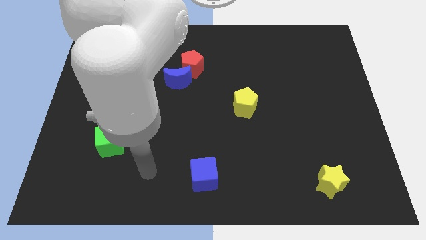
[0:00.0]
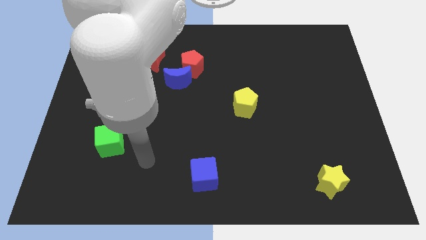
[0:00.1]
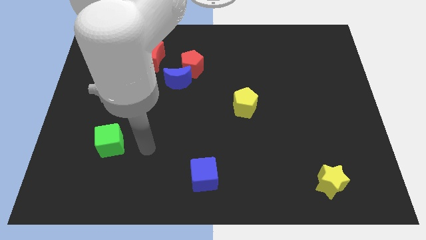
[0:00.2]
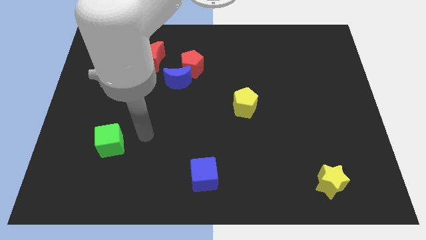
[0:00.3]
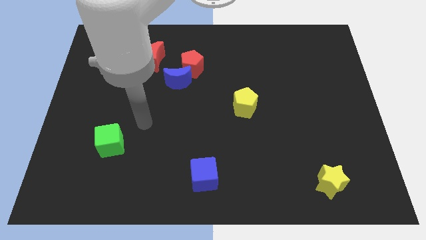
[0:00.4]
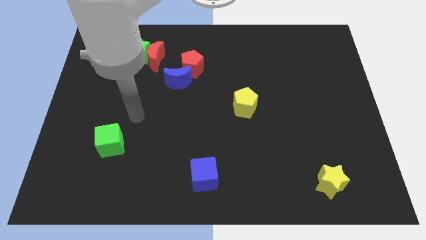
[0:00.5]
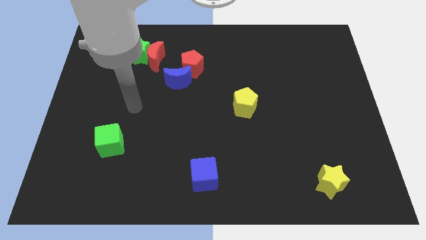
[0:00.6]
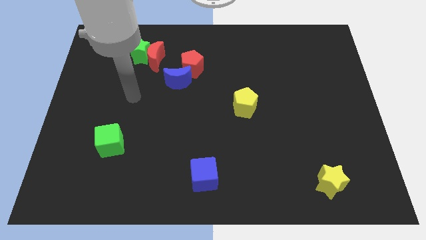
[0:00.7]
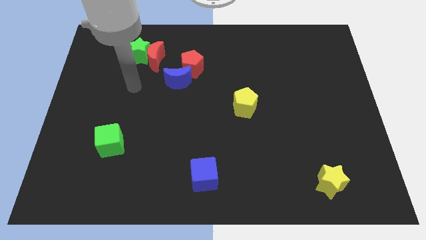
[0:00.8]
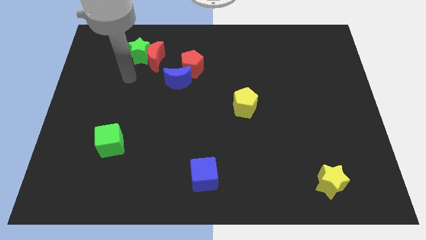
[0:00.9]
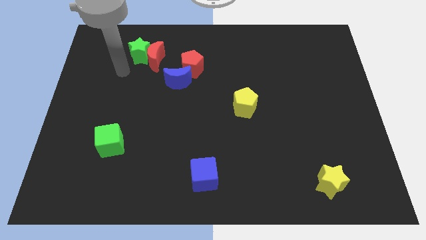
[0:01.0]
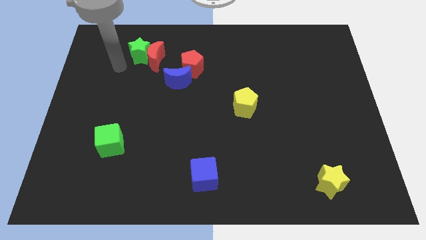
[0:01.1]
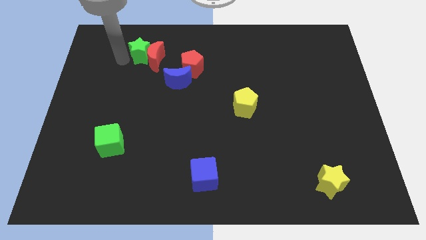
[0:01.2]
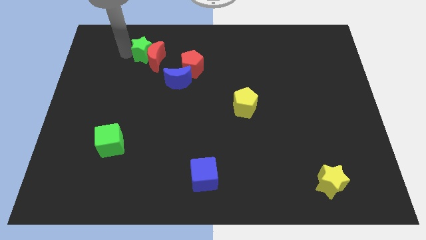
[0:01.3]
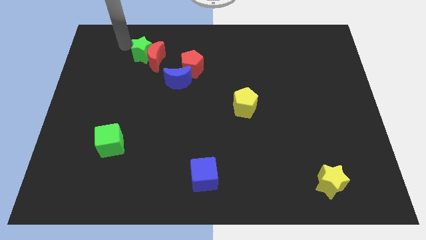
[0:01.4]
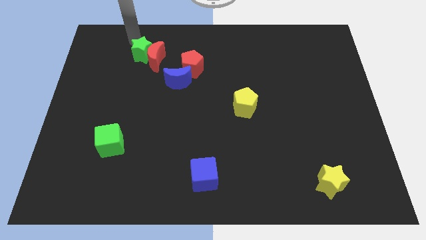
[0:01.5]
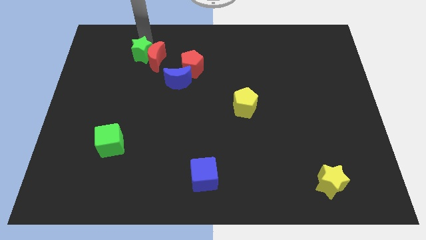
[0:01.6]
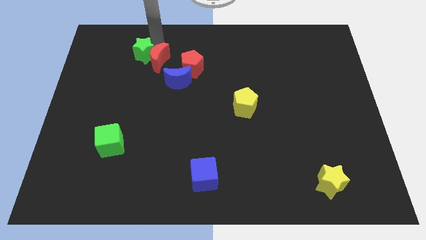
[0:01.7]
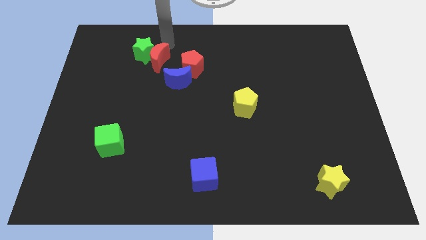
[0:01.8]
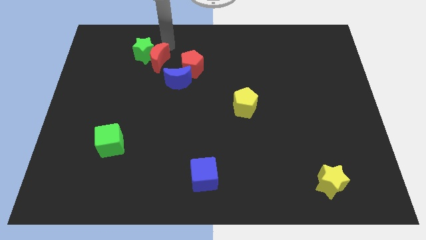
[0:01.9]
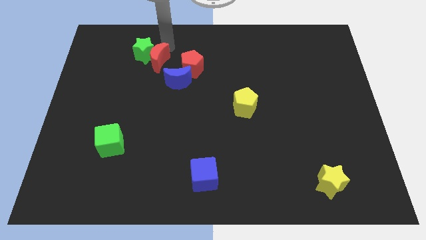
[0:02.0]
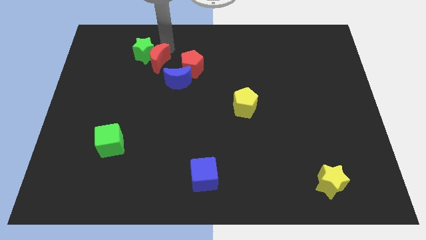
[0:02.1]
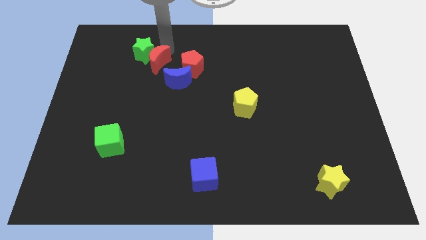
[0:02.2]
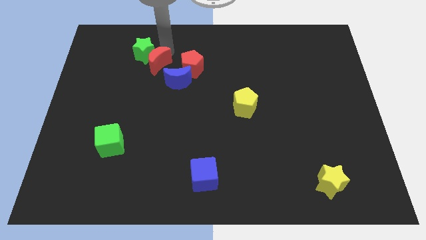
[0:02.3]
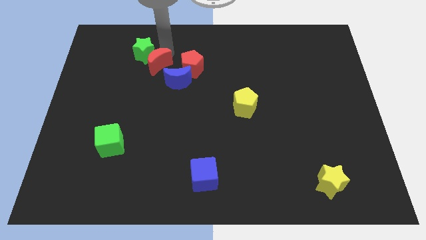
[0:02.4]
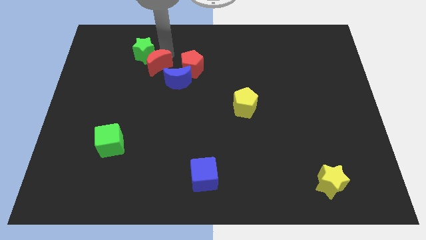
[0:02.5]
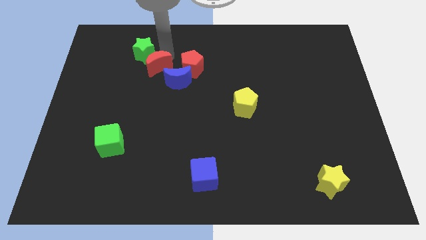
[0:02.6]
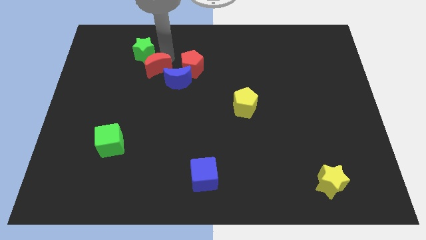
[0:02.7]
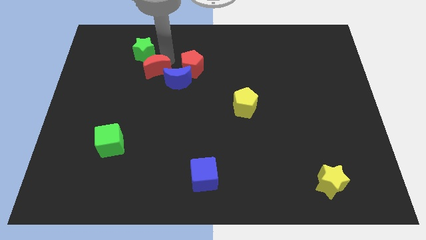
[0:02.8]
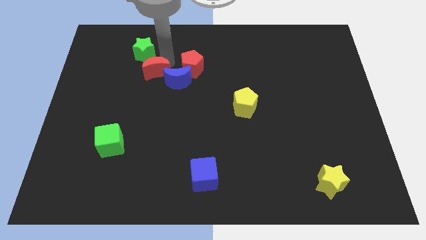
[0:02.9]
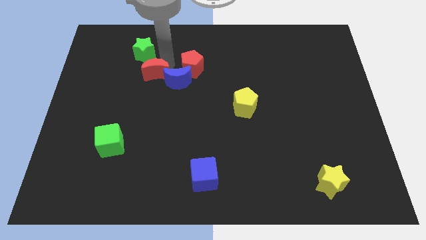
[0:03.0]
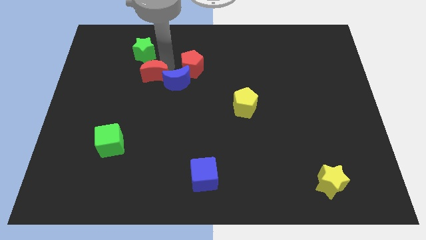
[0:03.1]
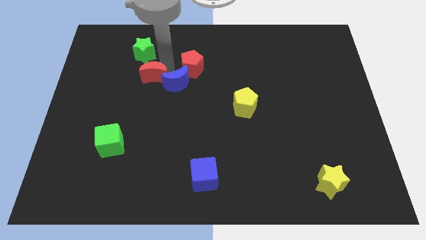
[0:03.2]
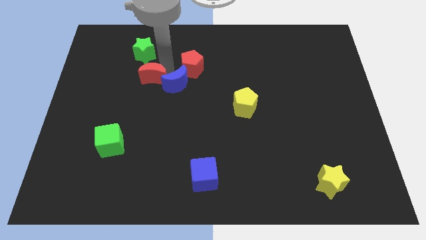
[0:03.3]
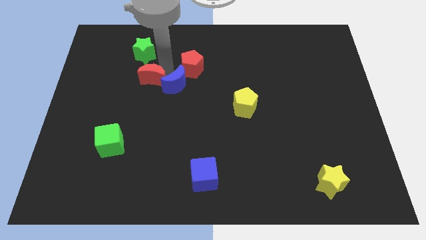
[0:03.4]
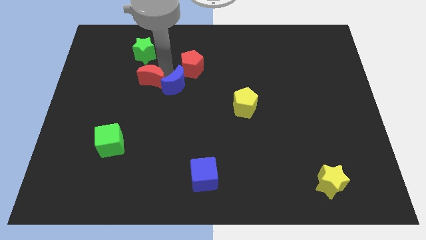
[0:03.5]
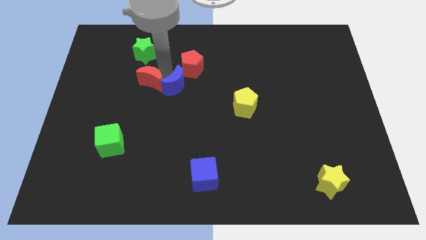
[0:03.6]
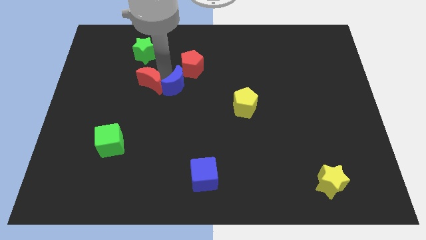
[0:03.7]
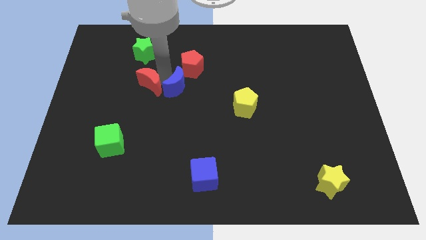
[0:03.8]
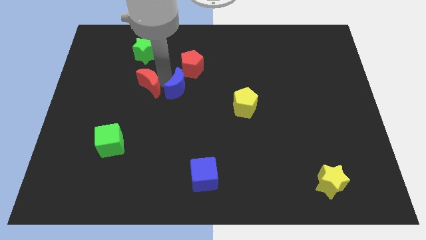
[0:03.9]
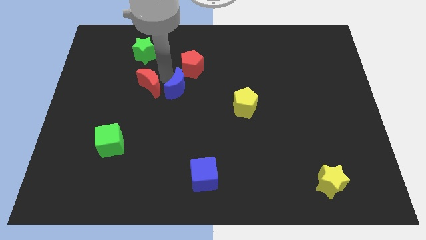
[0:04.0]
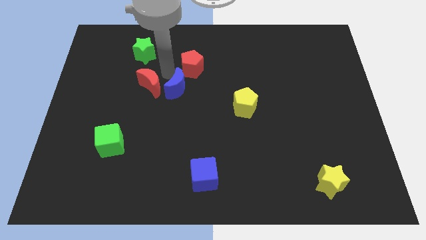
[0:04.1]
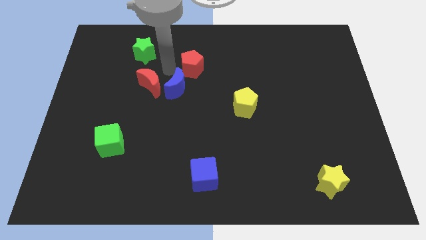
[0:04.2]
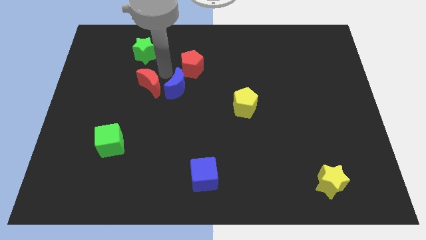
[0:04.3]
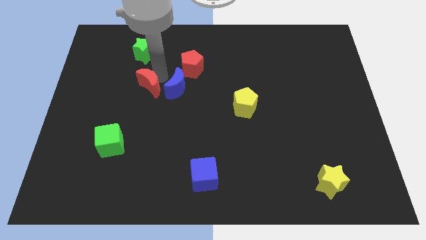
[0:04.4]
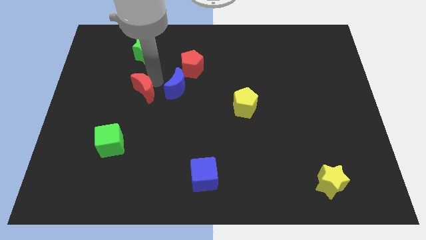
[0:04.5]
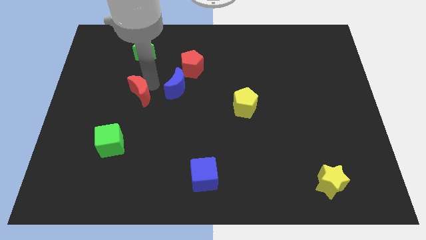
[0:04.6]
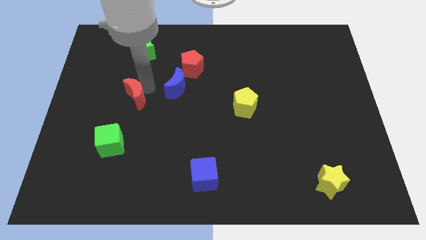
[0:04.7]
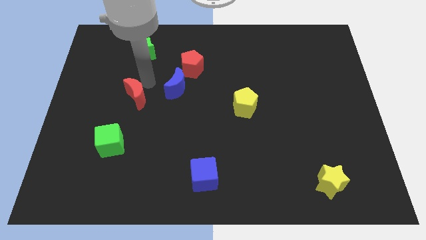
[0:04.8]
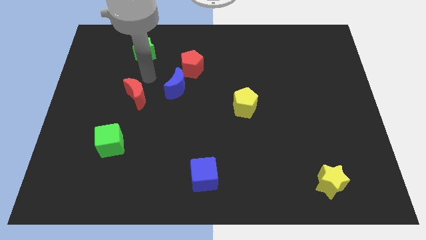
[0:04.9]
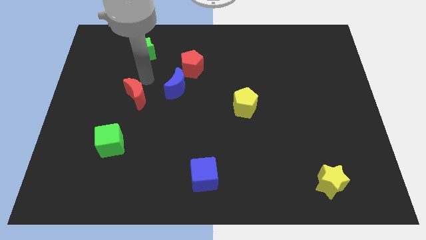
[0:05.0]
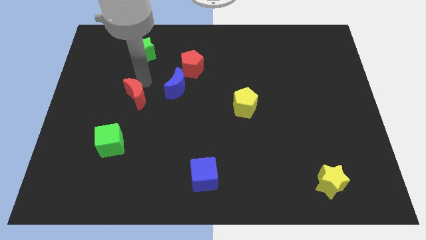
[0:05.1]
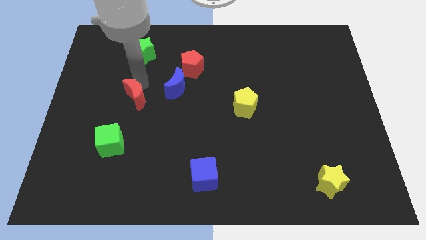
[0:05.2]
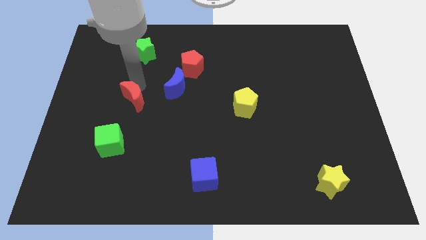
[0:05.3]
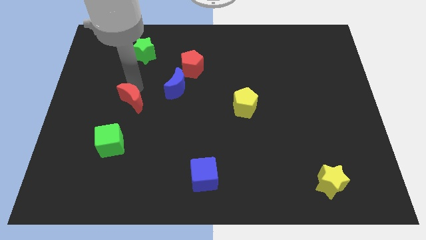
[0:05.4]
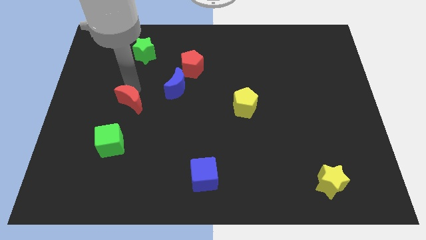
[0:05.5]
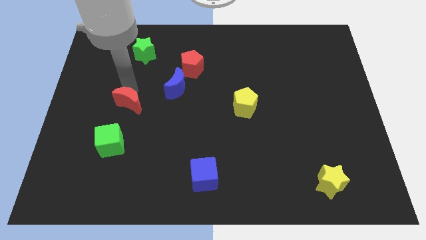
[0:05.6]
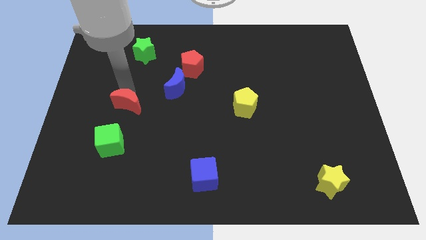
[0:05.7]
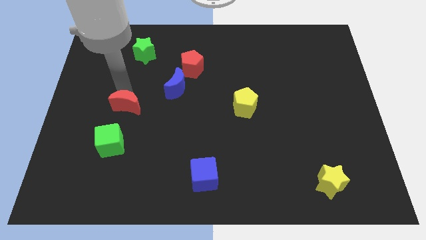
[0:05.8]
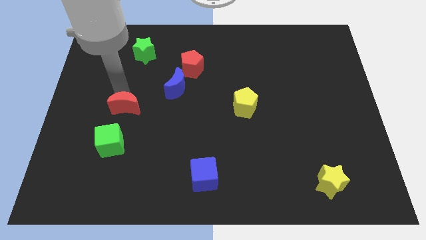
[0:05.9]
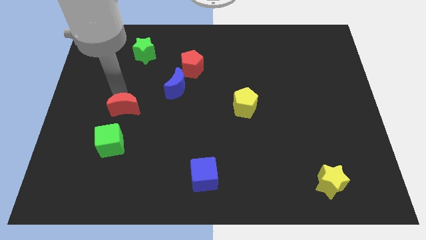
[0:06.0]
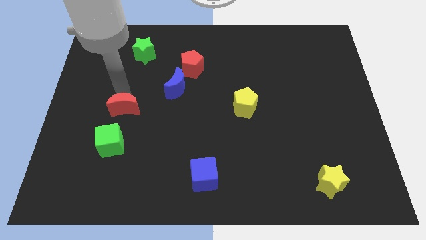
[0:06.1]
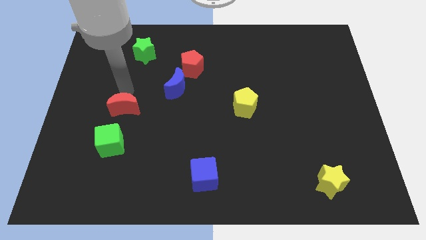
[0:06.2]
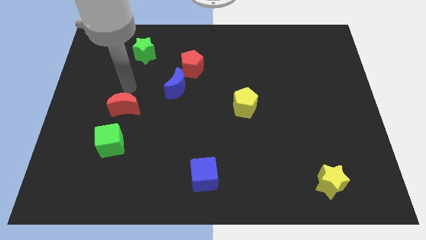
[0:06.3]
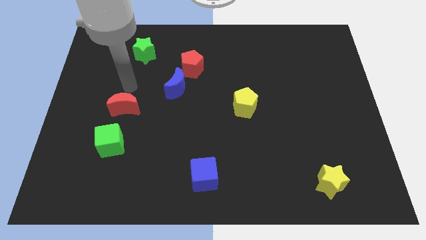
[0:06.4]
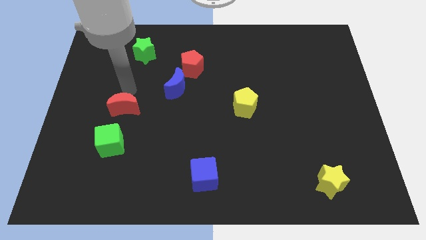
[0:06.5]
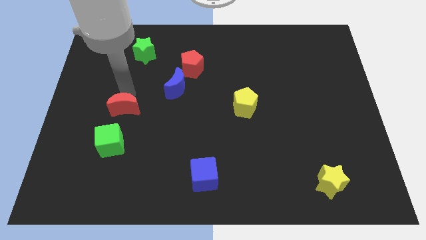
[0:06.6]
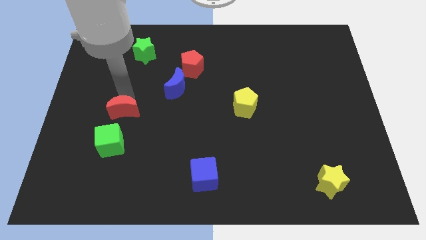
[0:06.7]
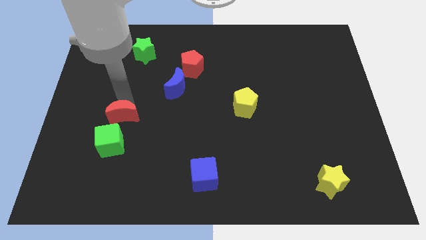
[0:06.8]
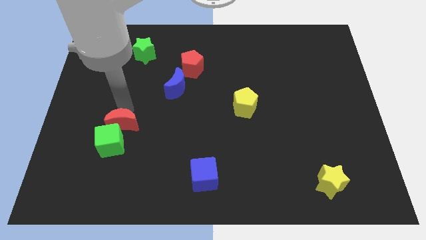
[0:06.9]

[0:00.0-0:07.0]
move the red moon to the green cube

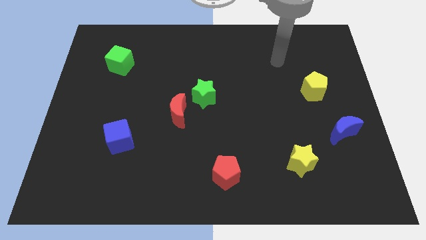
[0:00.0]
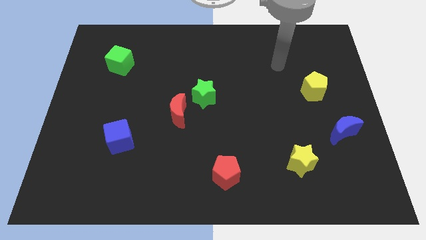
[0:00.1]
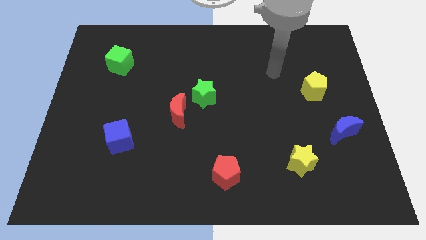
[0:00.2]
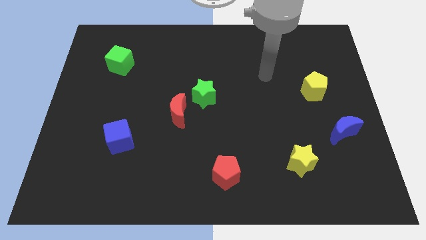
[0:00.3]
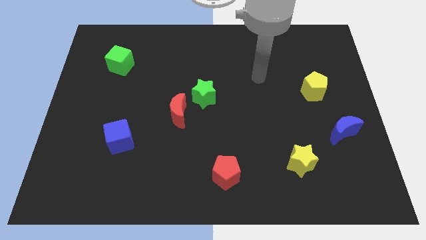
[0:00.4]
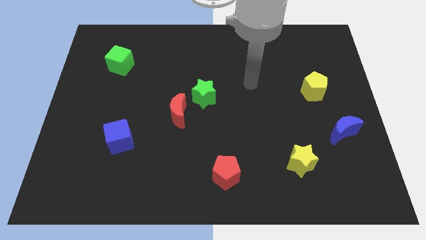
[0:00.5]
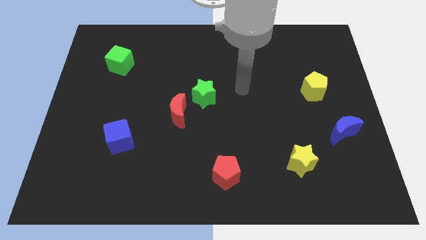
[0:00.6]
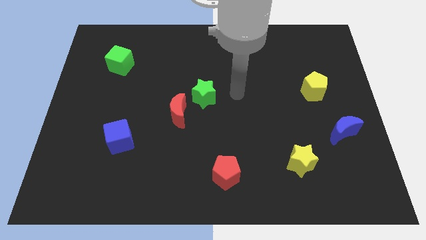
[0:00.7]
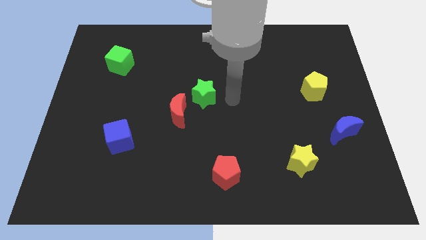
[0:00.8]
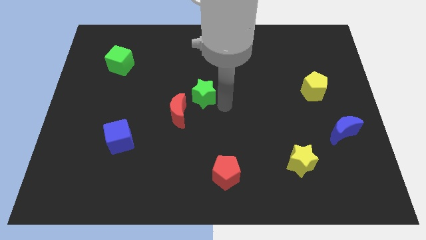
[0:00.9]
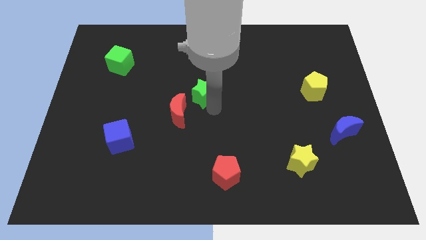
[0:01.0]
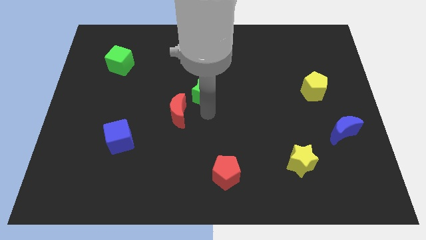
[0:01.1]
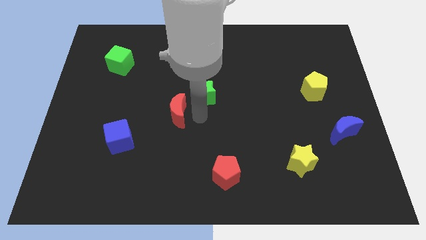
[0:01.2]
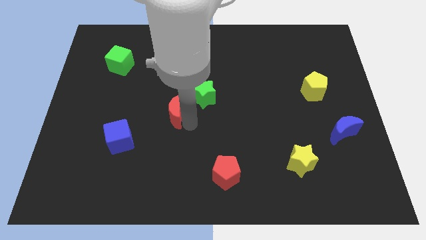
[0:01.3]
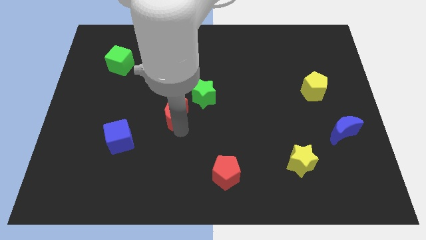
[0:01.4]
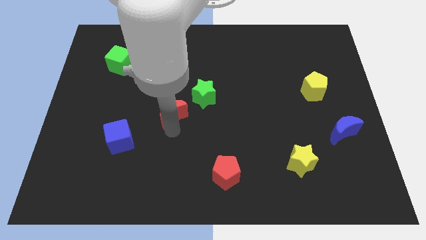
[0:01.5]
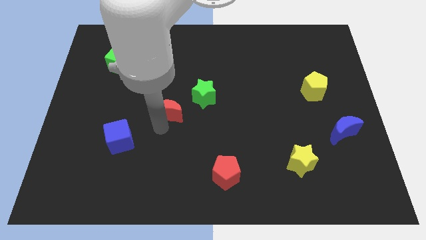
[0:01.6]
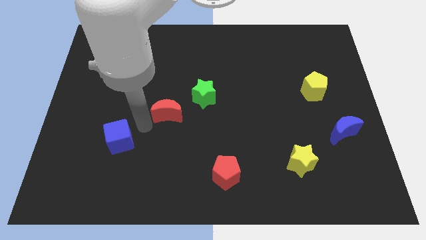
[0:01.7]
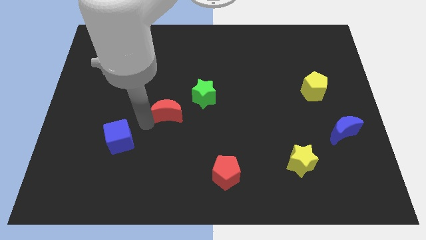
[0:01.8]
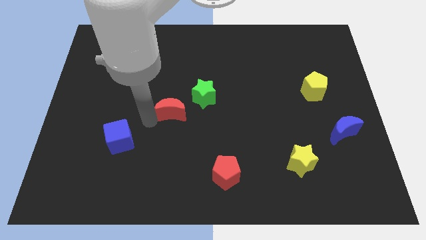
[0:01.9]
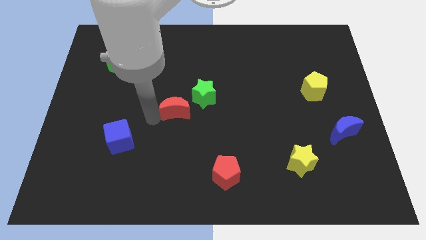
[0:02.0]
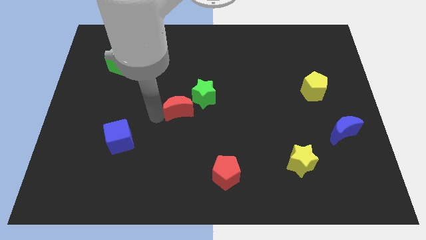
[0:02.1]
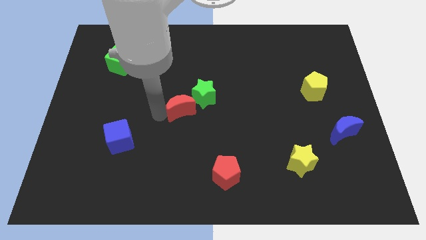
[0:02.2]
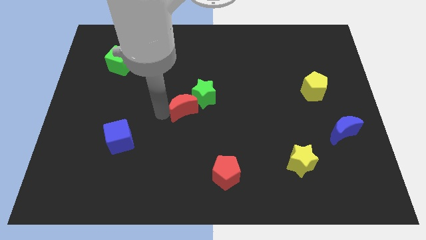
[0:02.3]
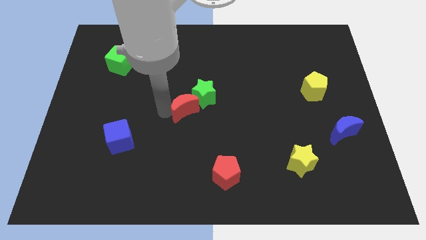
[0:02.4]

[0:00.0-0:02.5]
slide the red moon towards the green star
